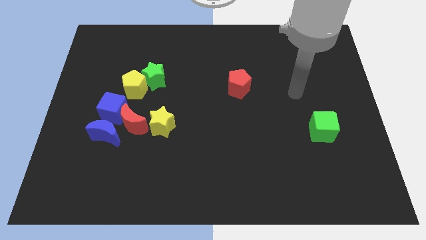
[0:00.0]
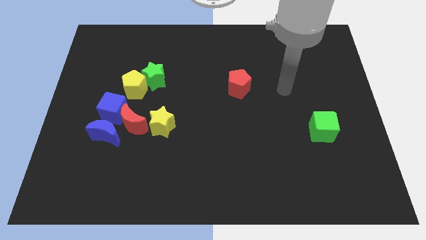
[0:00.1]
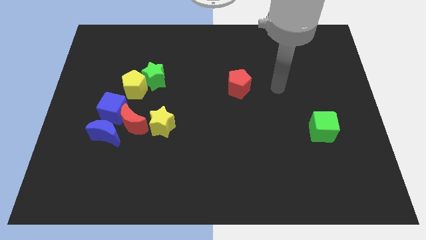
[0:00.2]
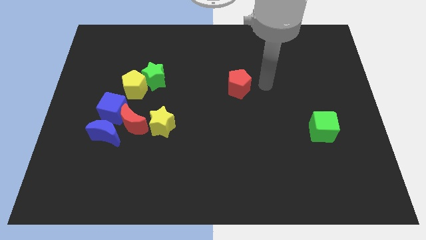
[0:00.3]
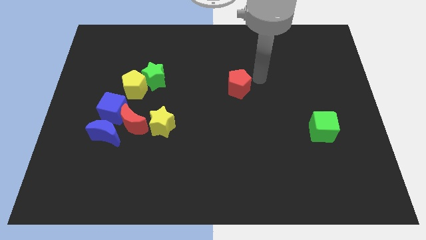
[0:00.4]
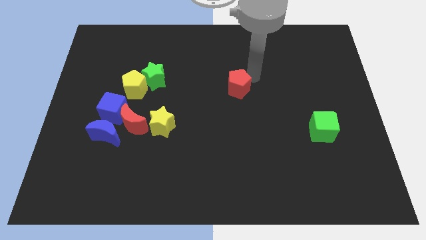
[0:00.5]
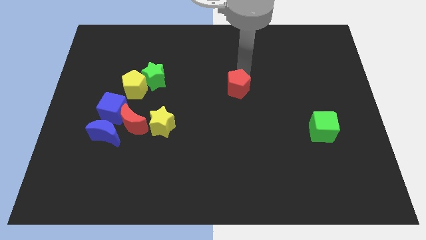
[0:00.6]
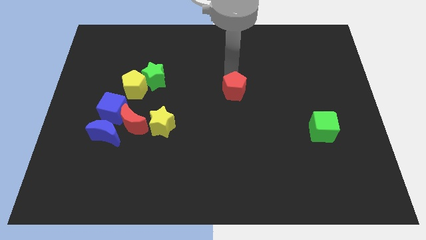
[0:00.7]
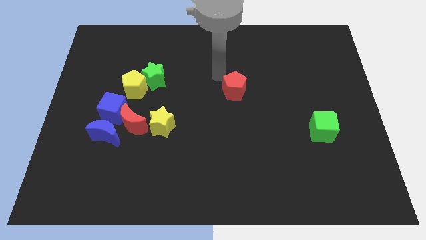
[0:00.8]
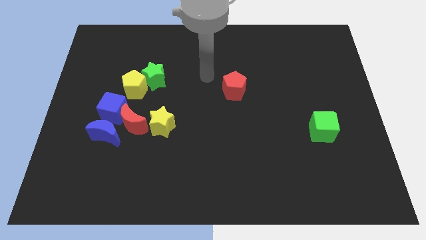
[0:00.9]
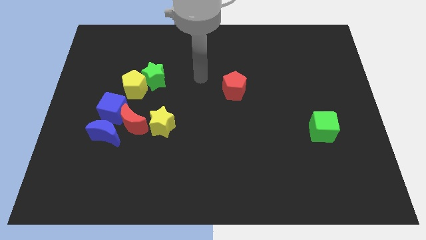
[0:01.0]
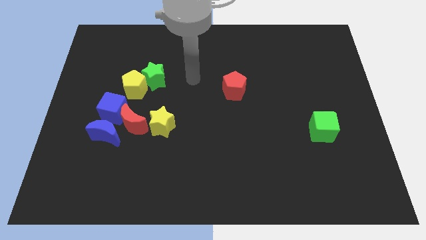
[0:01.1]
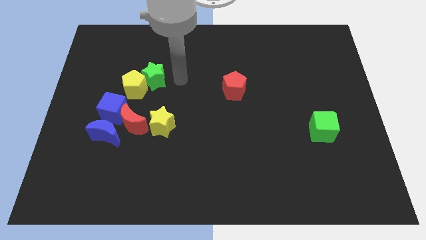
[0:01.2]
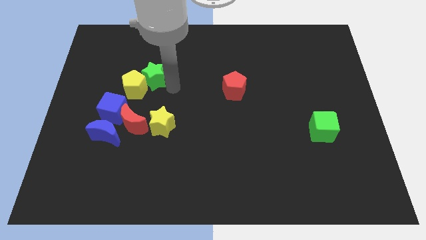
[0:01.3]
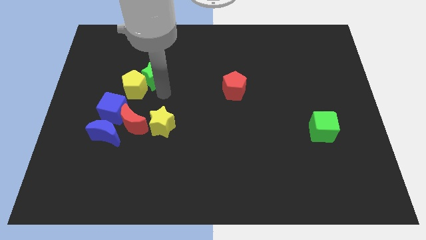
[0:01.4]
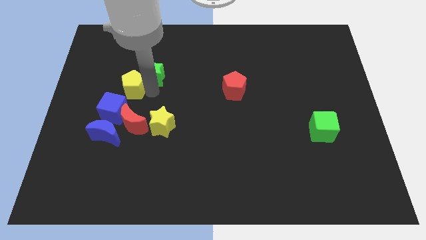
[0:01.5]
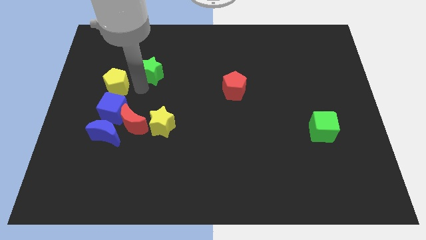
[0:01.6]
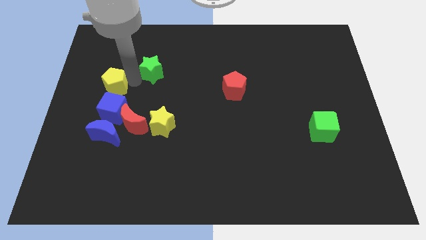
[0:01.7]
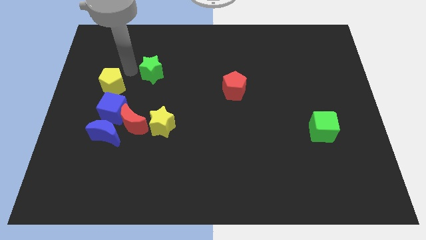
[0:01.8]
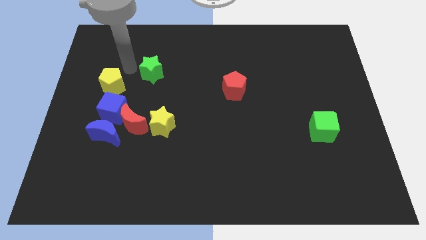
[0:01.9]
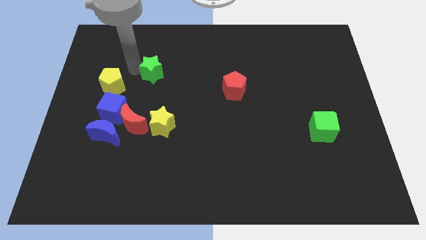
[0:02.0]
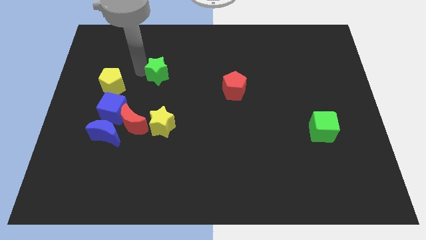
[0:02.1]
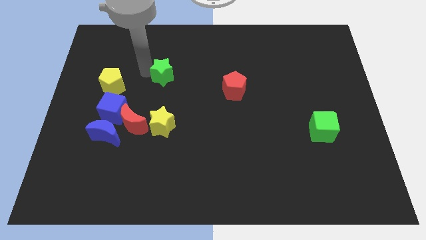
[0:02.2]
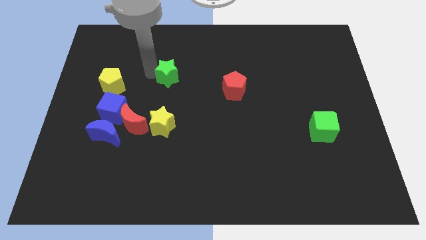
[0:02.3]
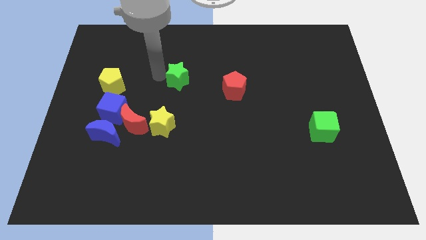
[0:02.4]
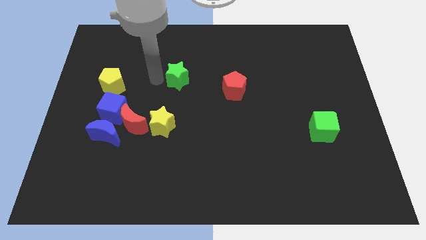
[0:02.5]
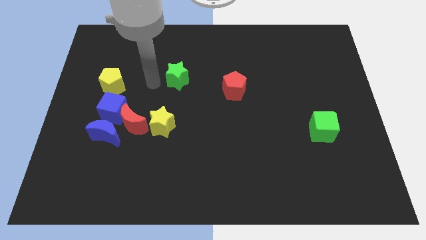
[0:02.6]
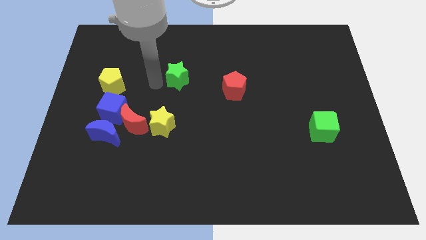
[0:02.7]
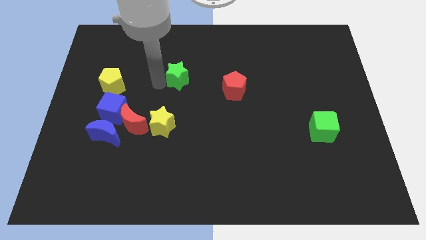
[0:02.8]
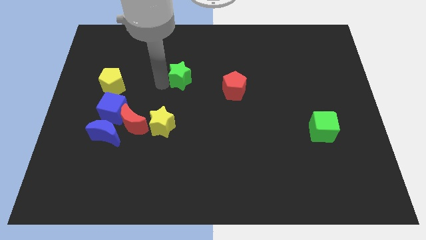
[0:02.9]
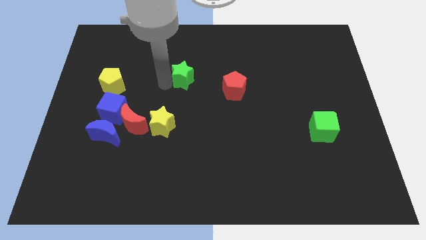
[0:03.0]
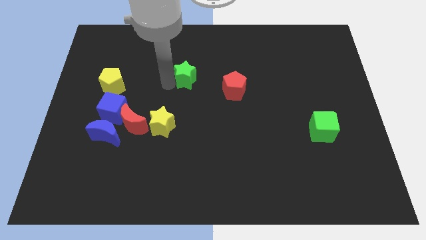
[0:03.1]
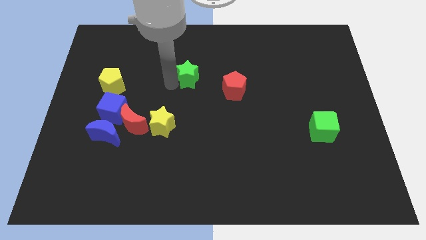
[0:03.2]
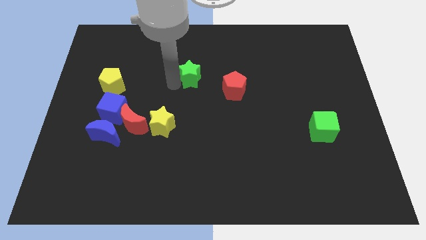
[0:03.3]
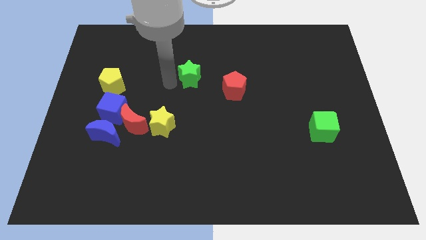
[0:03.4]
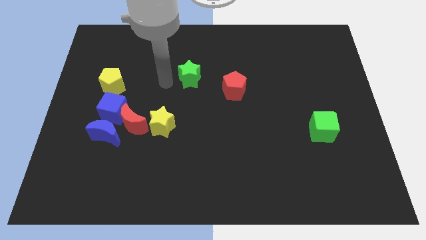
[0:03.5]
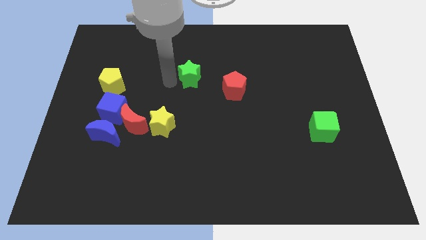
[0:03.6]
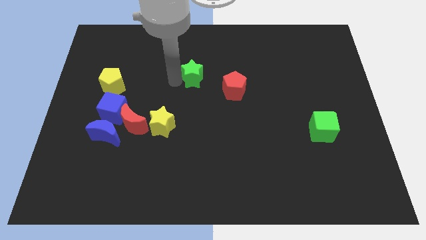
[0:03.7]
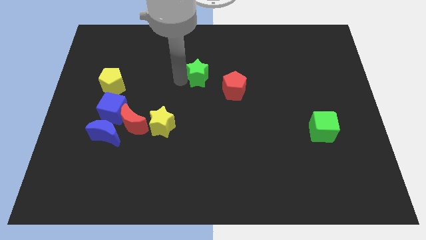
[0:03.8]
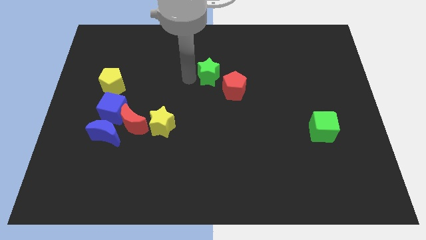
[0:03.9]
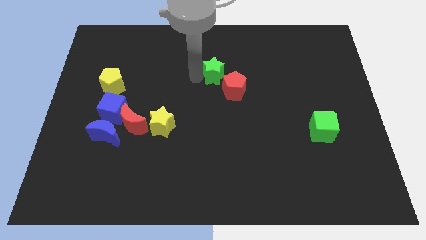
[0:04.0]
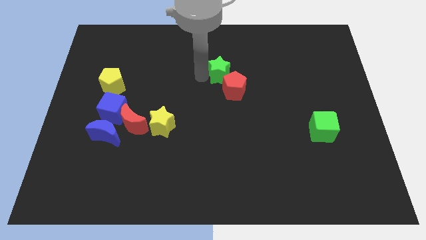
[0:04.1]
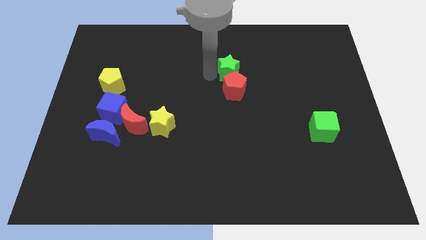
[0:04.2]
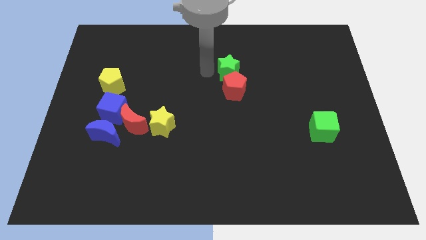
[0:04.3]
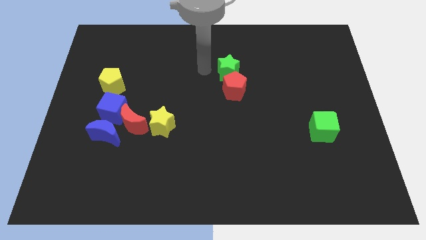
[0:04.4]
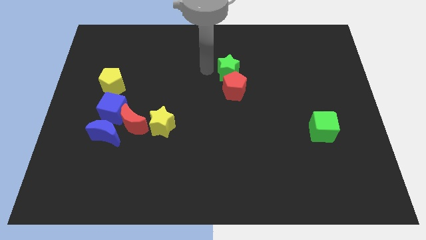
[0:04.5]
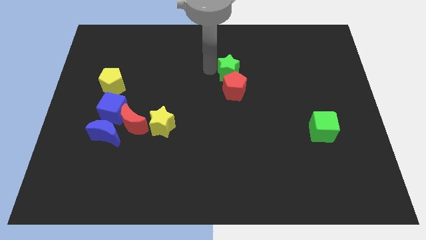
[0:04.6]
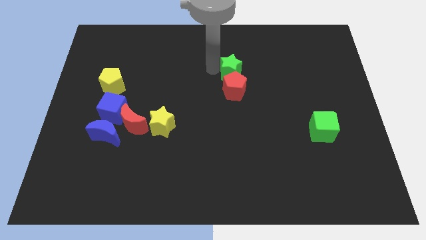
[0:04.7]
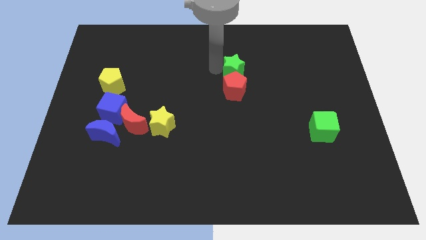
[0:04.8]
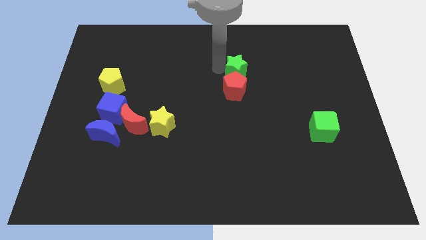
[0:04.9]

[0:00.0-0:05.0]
move the green star to the right

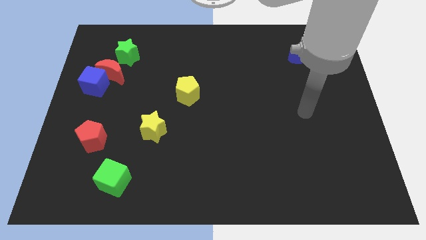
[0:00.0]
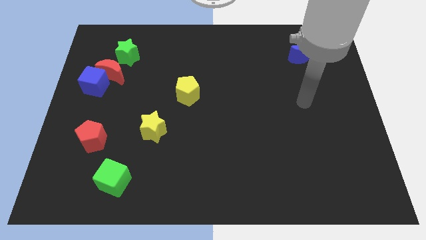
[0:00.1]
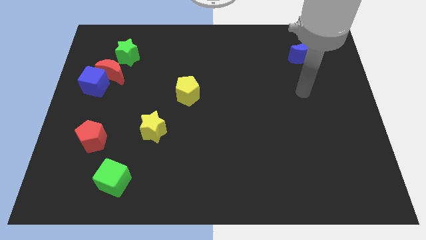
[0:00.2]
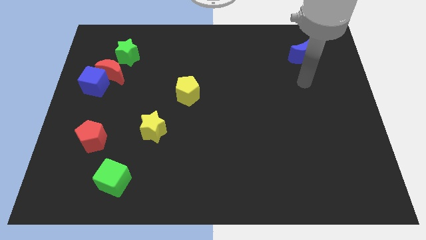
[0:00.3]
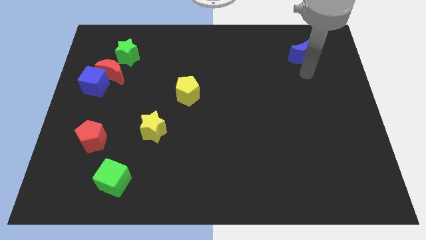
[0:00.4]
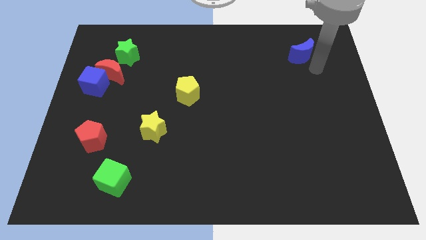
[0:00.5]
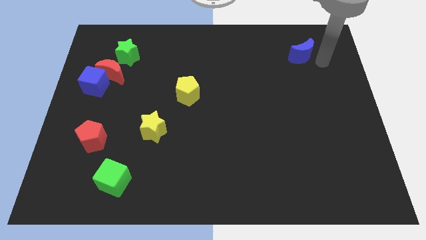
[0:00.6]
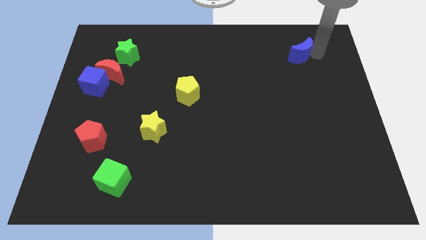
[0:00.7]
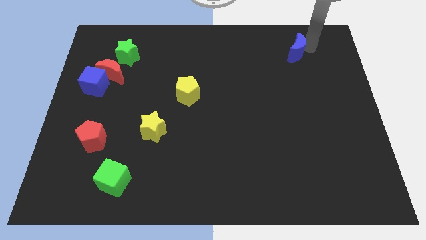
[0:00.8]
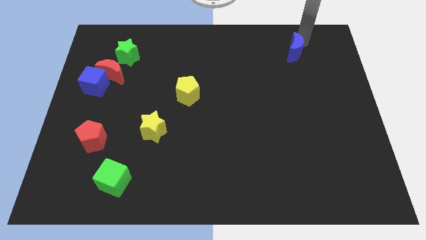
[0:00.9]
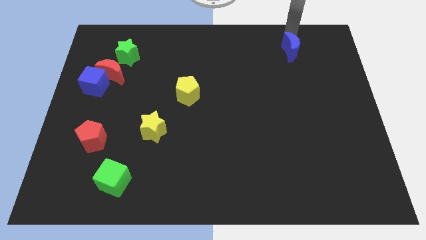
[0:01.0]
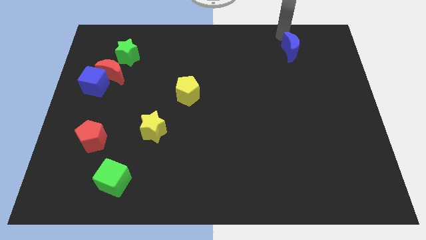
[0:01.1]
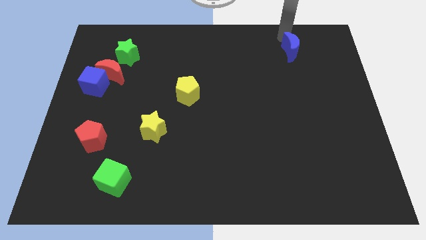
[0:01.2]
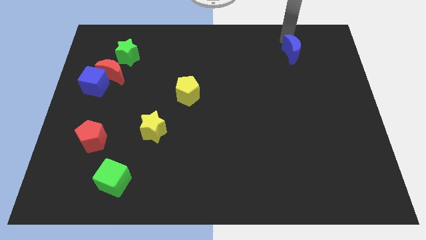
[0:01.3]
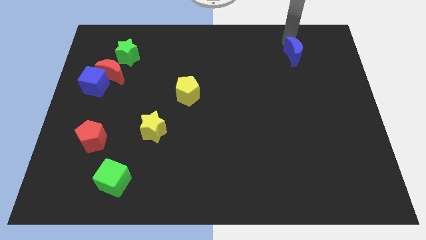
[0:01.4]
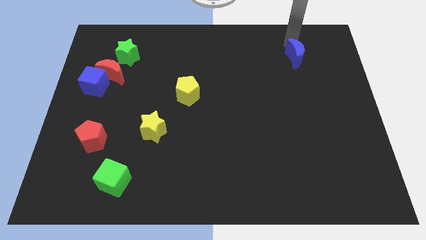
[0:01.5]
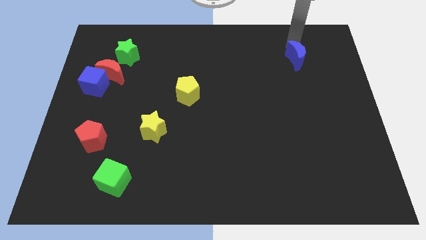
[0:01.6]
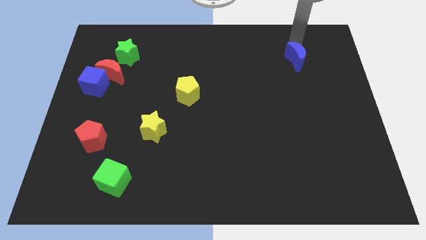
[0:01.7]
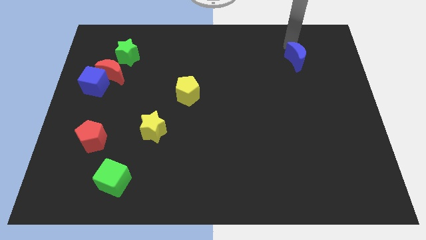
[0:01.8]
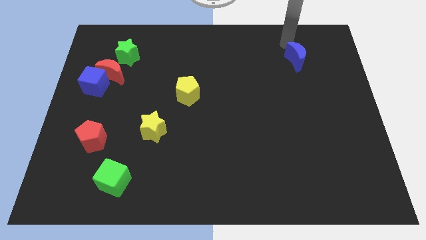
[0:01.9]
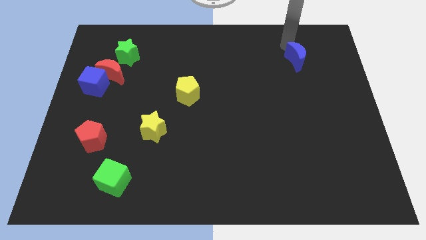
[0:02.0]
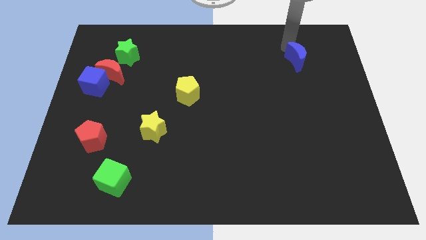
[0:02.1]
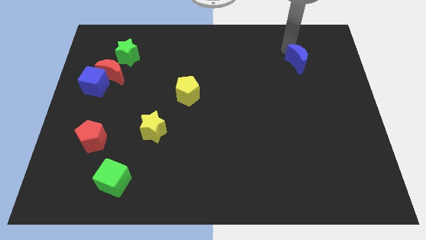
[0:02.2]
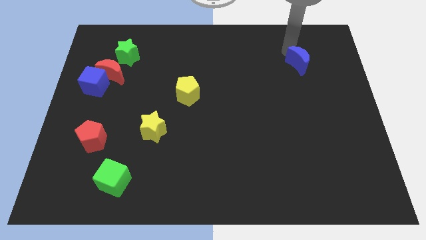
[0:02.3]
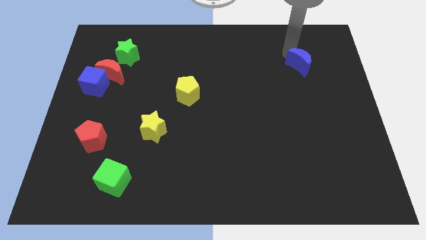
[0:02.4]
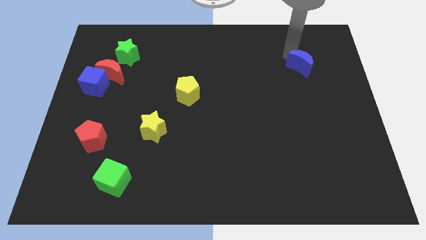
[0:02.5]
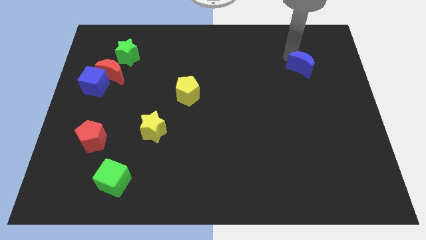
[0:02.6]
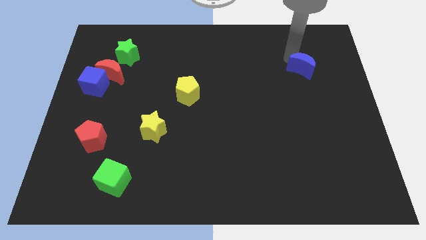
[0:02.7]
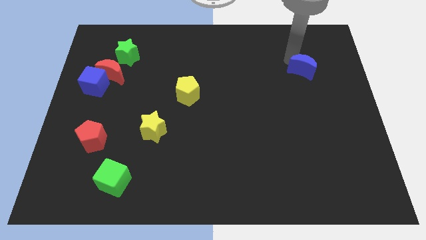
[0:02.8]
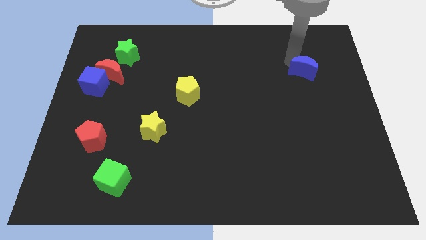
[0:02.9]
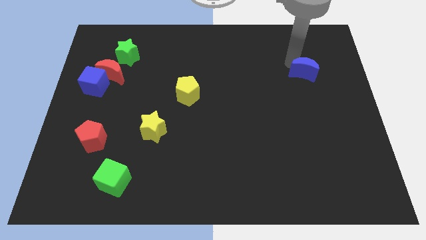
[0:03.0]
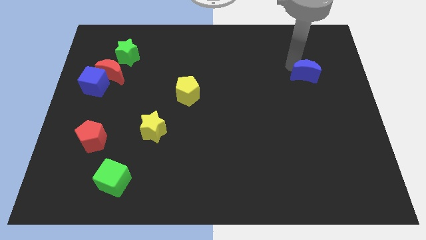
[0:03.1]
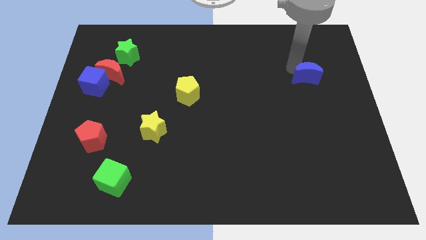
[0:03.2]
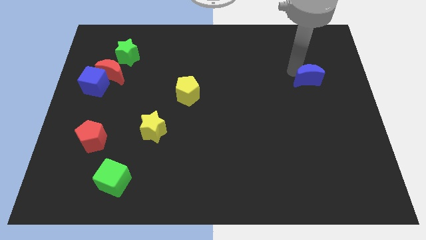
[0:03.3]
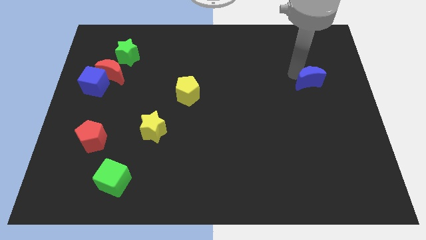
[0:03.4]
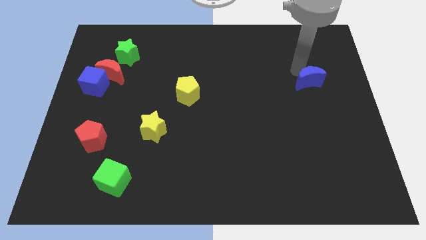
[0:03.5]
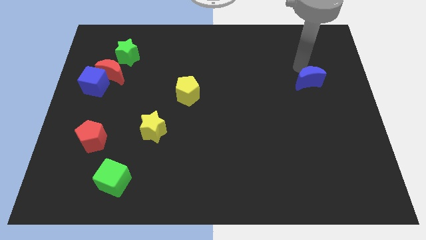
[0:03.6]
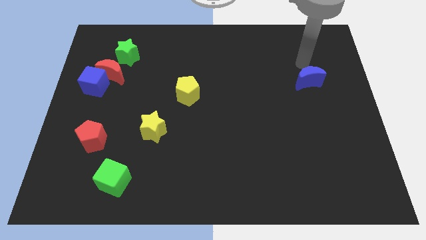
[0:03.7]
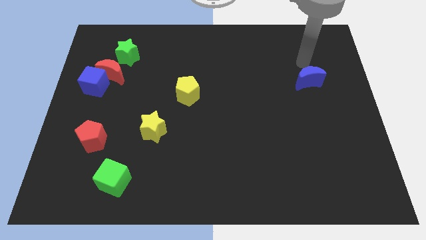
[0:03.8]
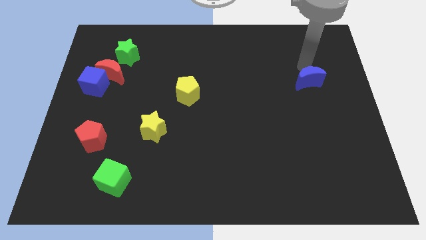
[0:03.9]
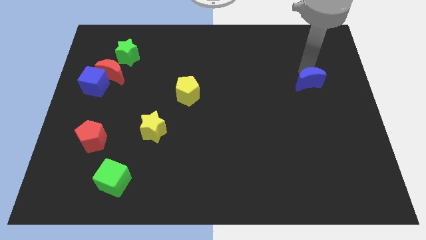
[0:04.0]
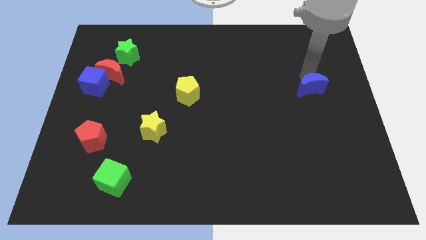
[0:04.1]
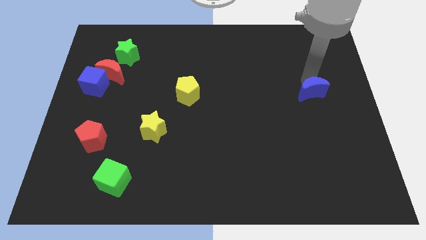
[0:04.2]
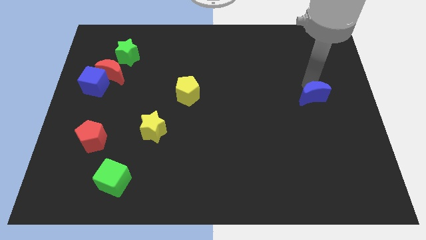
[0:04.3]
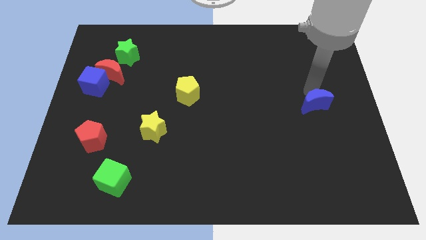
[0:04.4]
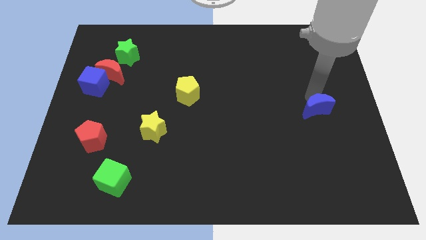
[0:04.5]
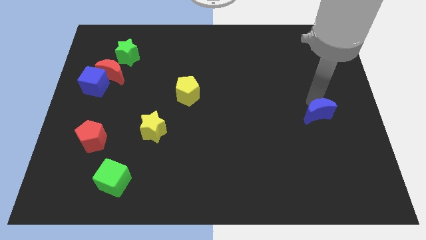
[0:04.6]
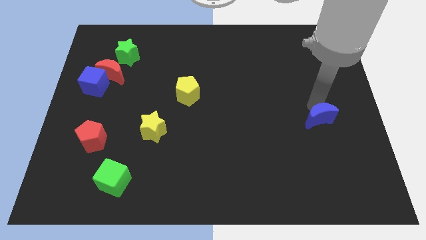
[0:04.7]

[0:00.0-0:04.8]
push the blue moon down
